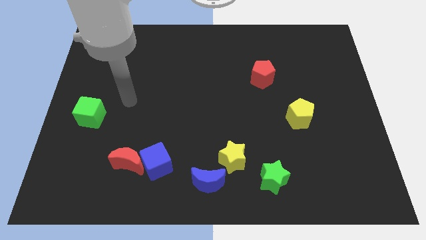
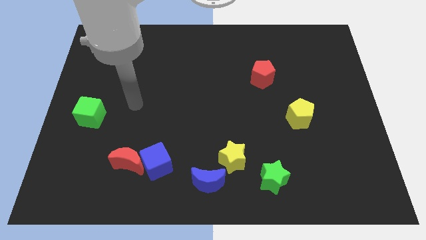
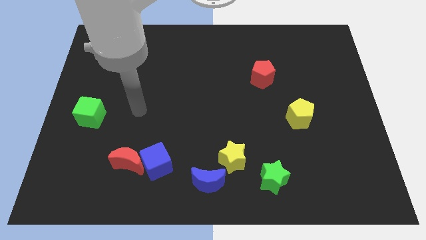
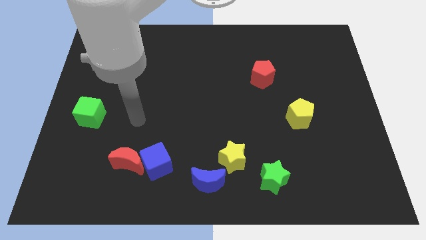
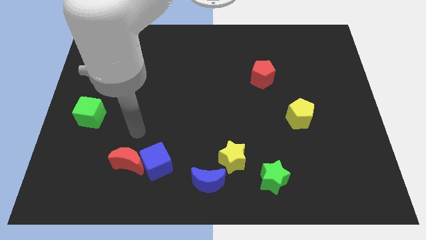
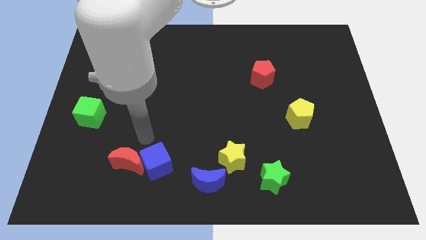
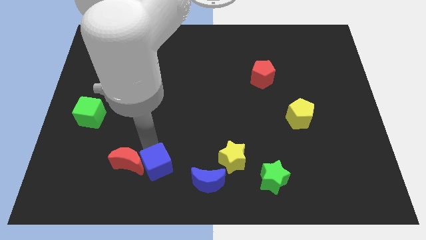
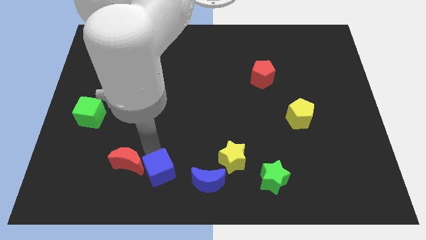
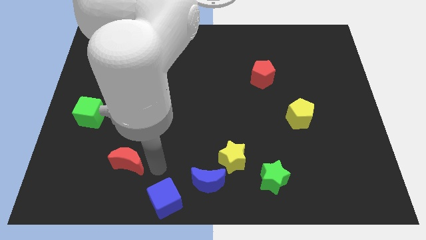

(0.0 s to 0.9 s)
pull the red moon apart from the blue cube

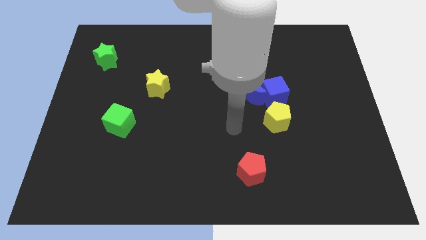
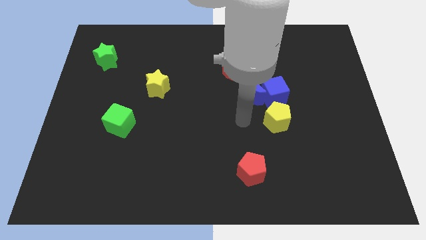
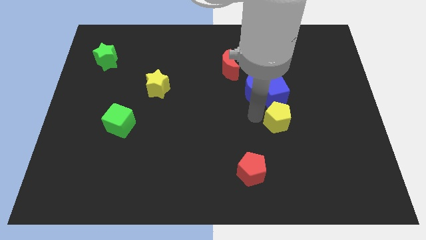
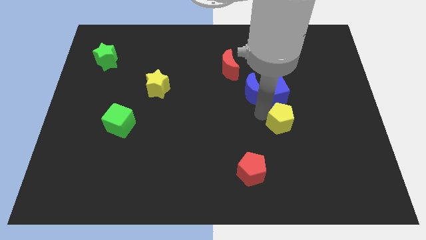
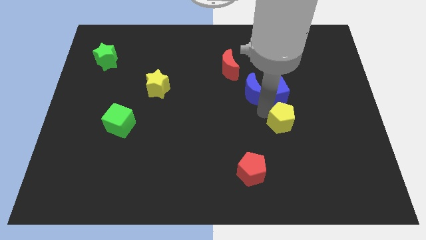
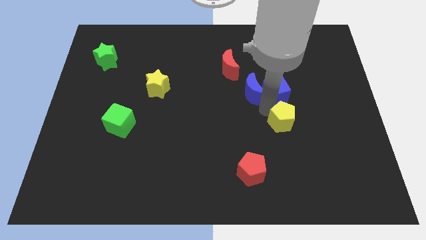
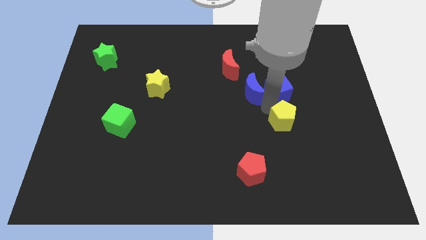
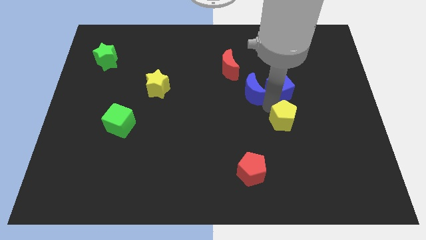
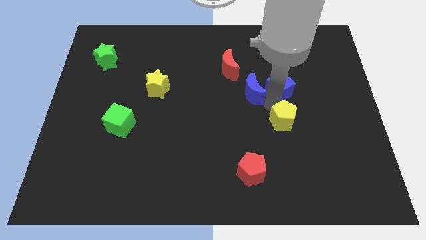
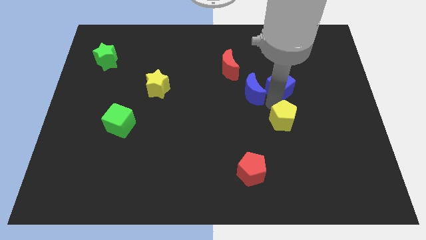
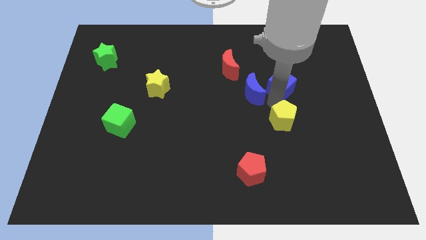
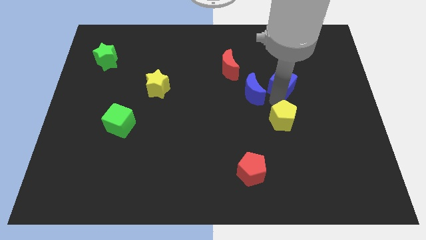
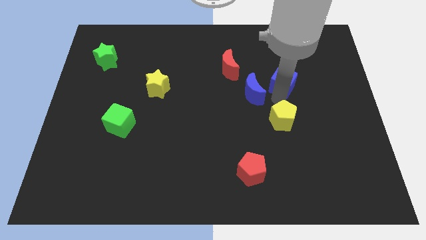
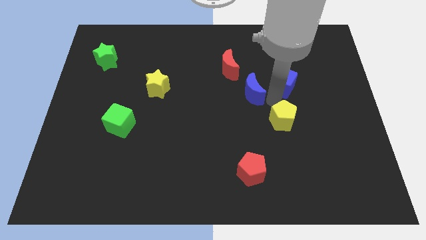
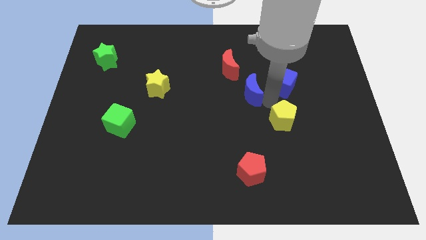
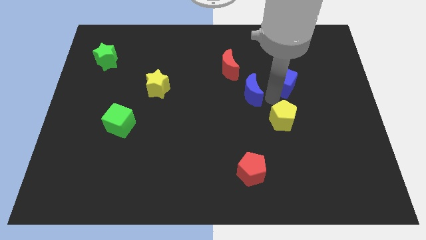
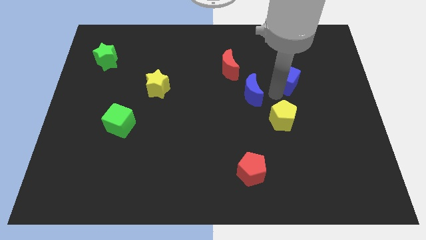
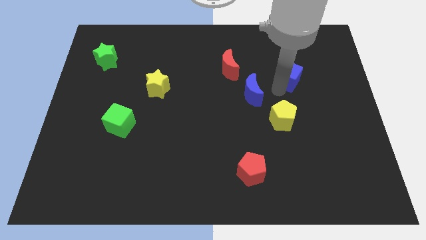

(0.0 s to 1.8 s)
move the blue cube away from the blue moon and yellow pentagon

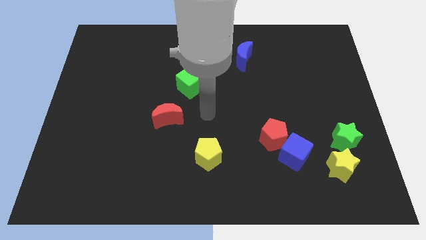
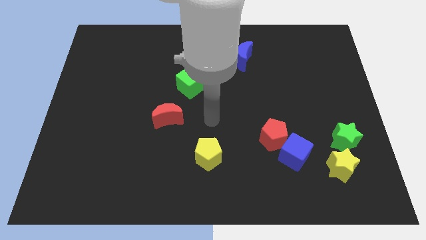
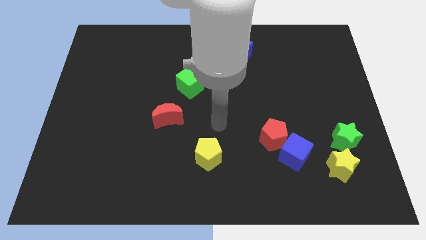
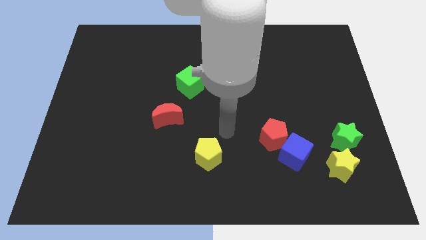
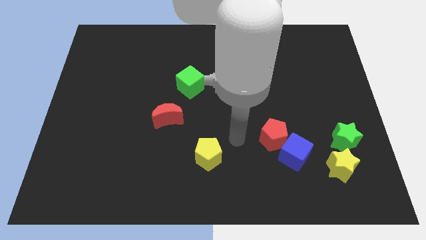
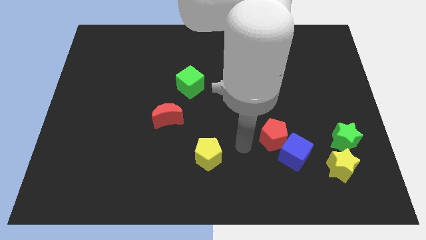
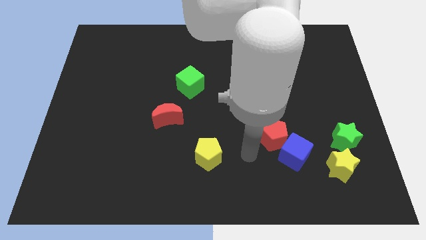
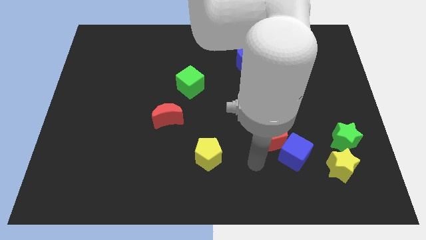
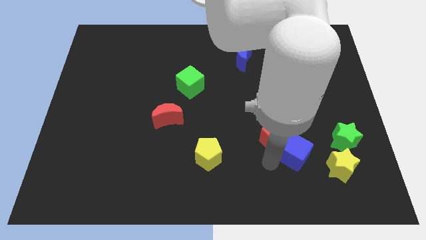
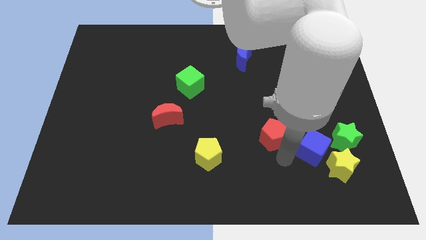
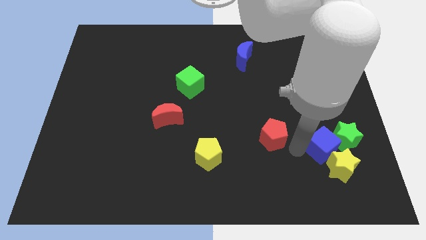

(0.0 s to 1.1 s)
separate the red pentagon from the blue cube

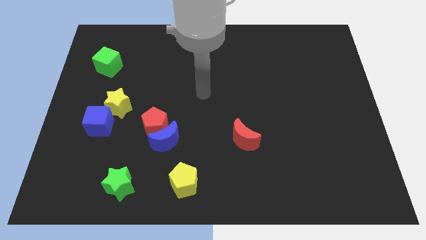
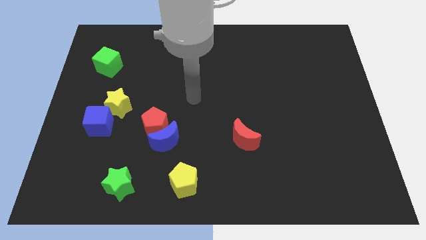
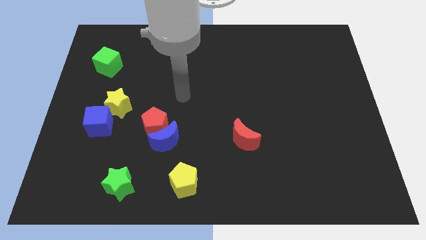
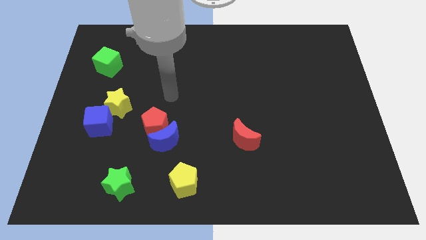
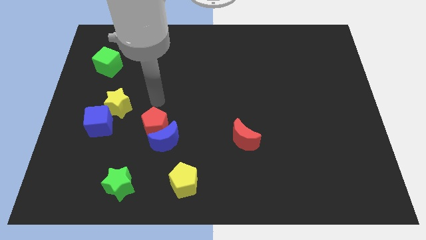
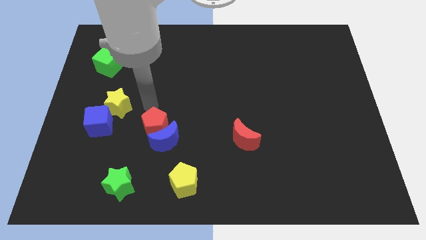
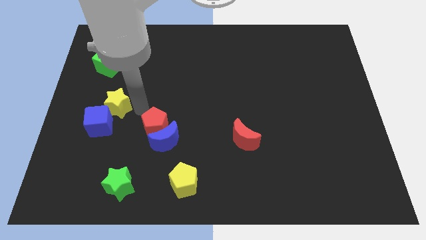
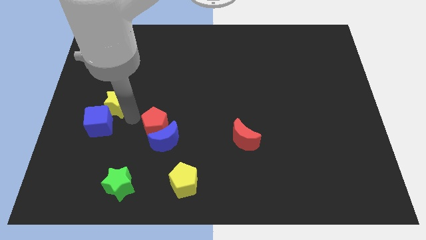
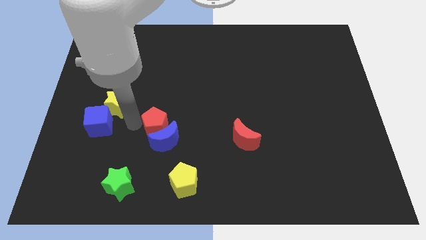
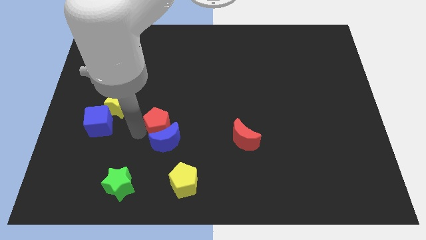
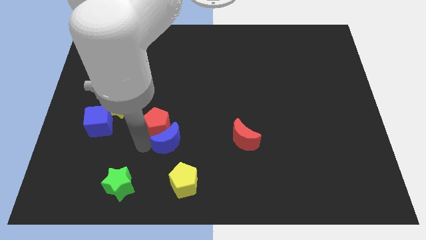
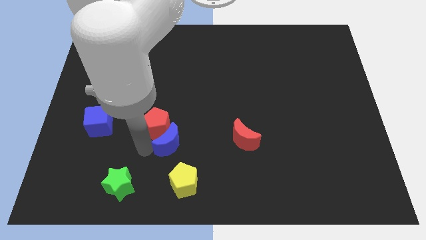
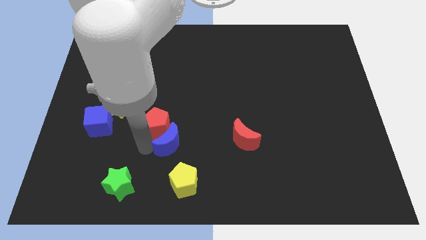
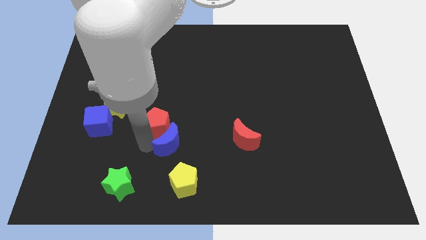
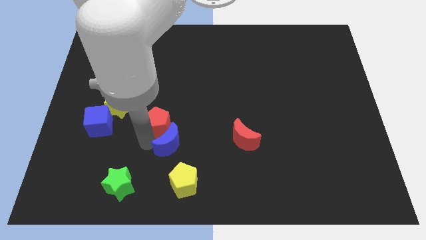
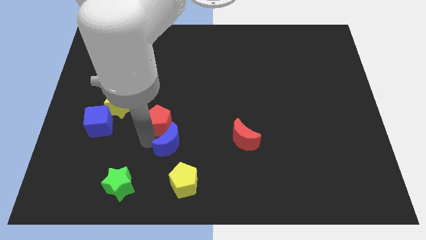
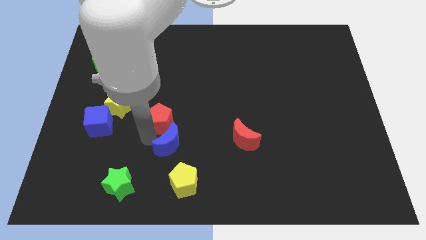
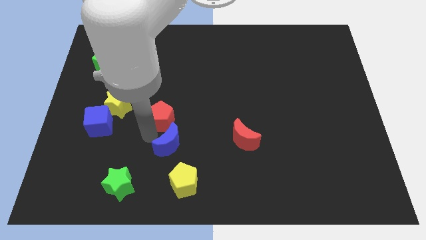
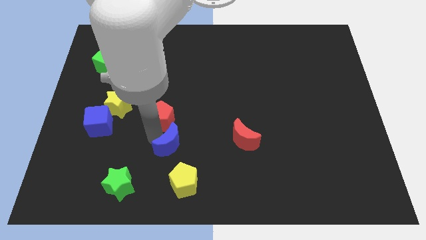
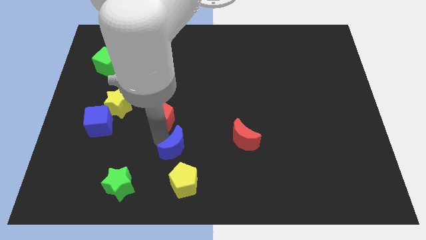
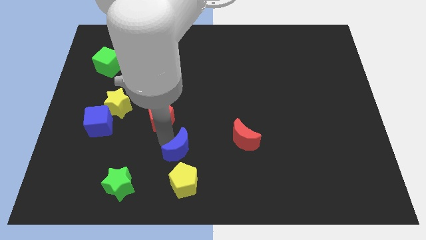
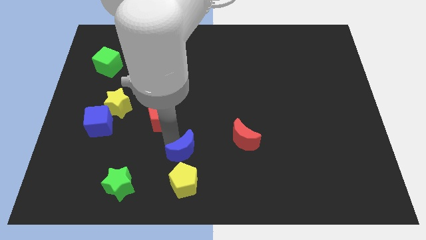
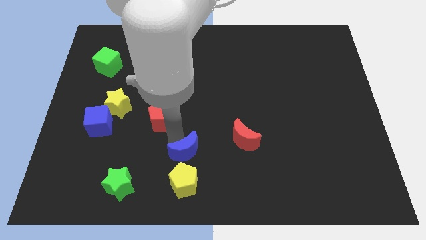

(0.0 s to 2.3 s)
pull the red pentagon apart from the blue moon

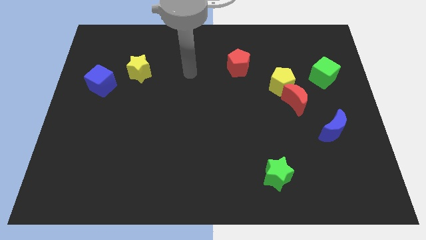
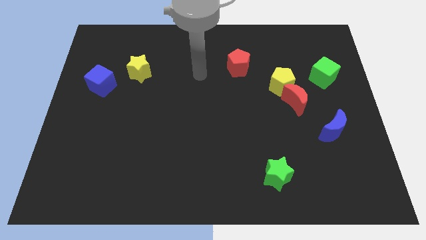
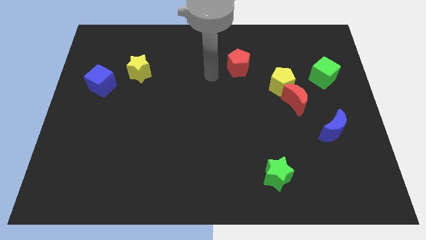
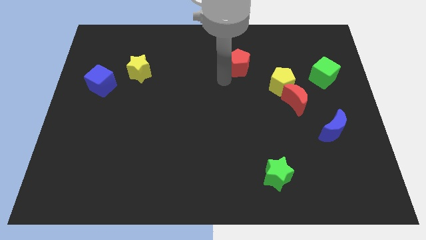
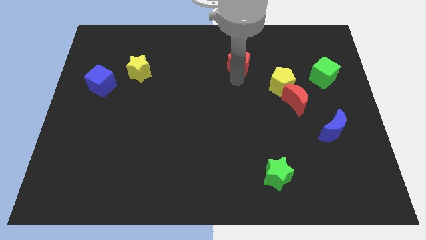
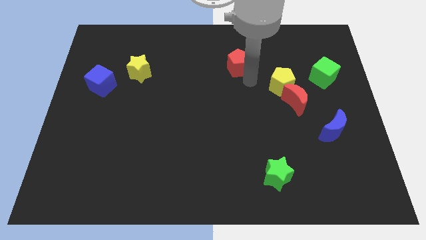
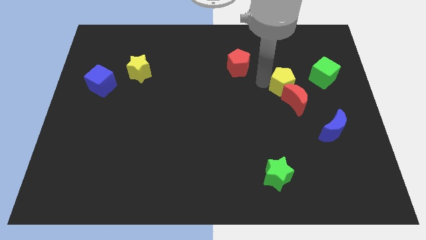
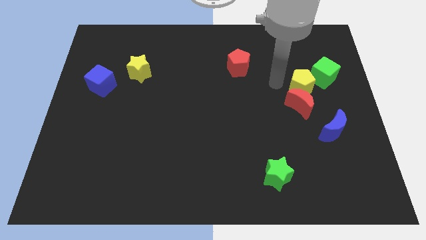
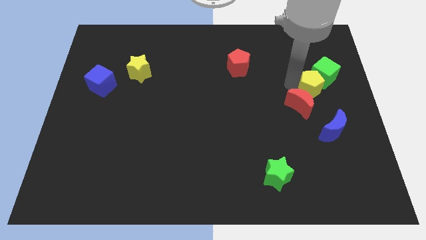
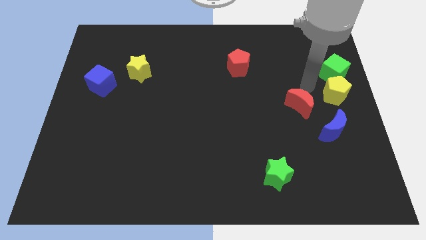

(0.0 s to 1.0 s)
pull the red moon apart from the yellow pentagon

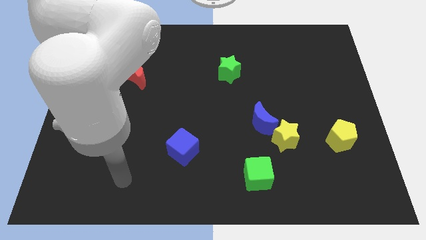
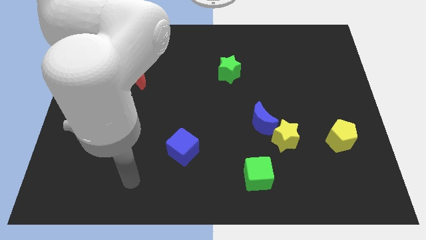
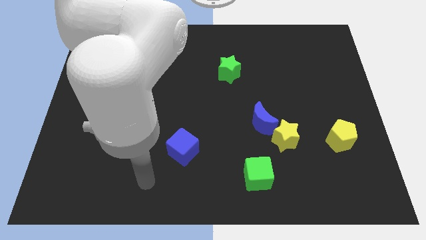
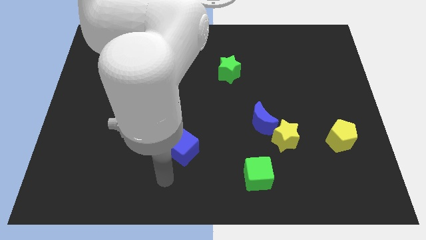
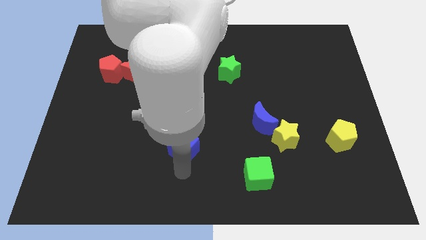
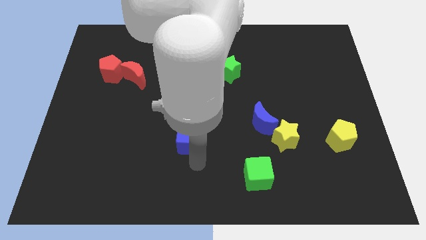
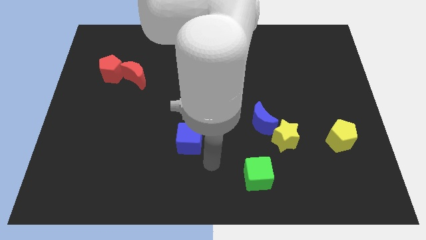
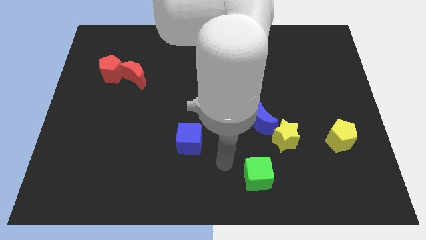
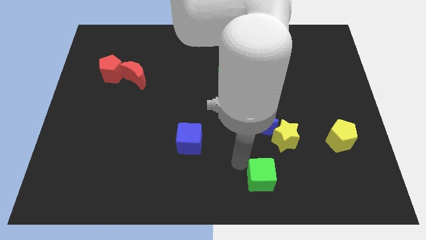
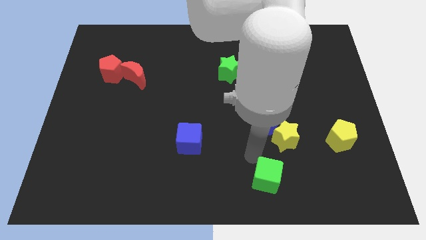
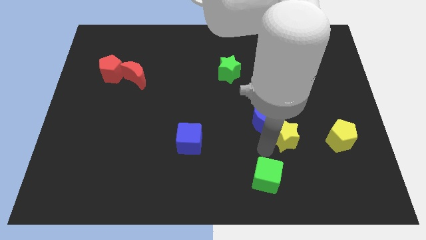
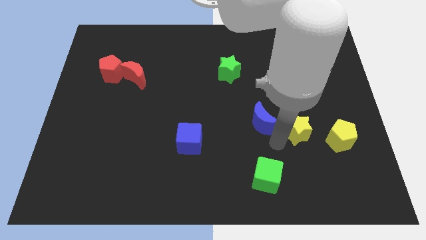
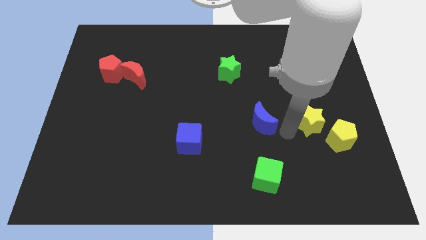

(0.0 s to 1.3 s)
separate the blue moon from the yellow star

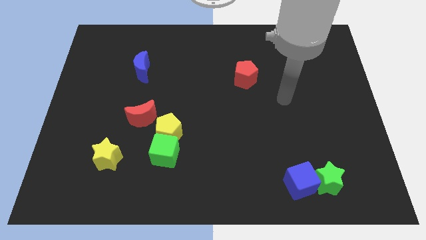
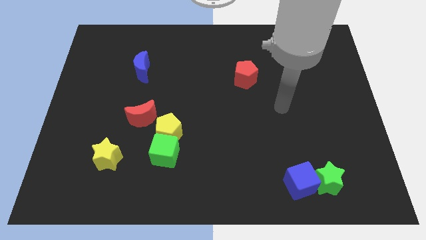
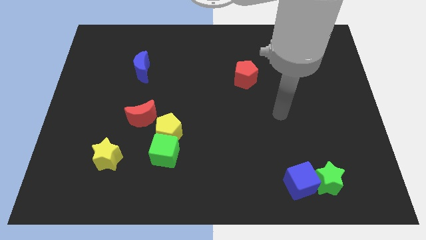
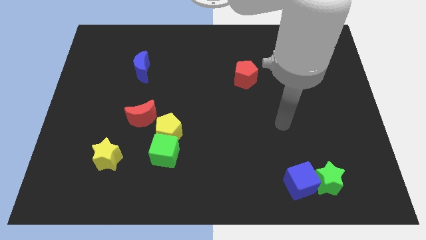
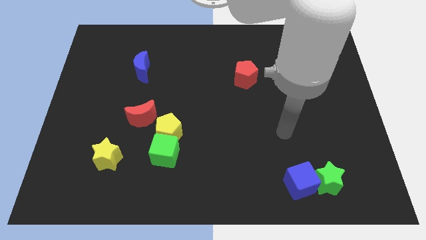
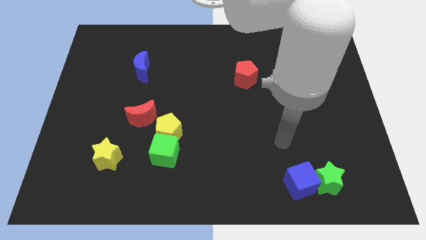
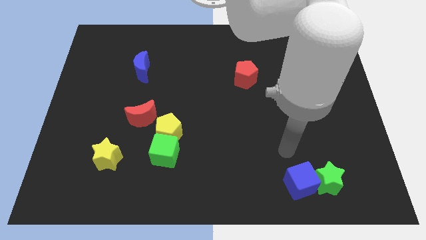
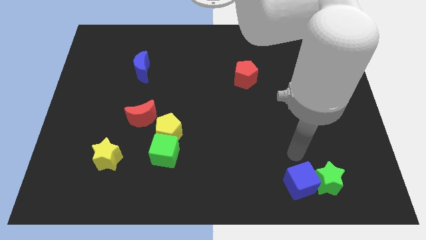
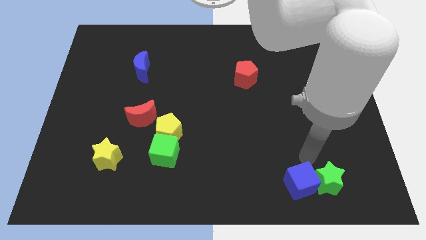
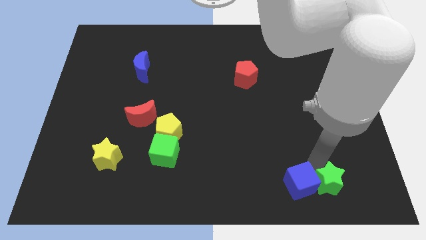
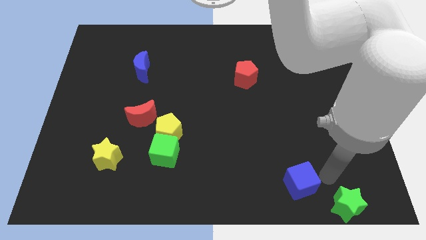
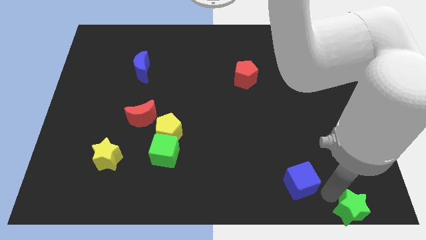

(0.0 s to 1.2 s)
move the blue cube away from the green star
